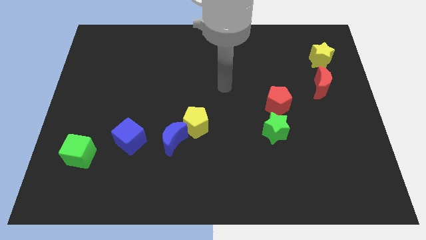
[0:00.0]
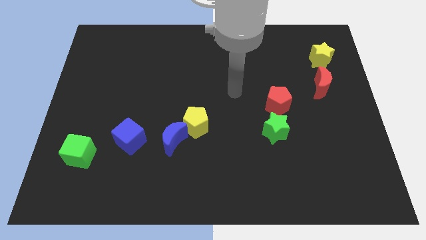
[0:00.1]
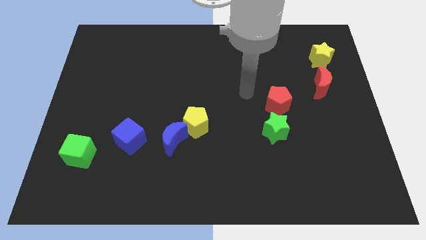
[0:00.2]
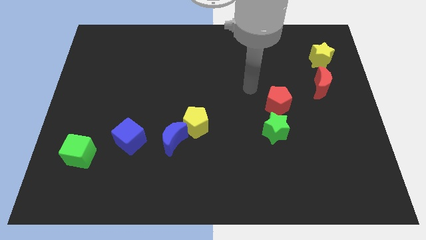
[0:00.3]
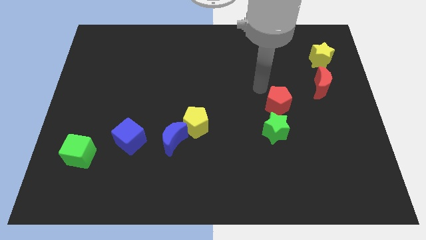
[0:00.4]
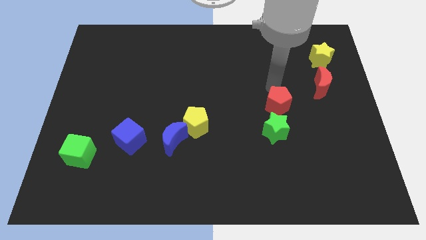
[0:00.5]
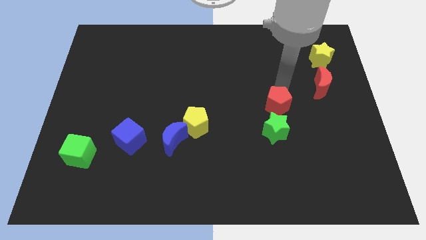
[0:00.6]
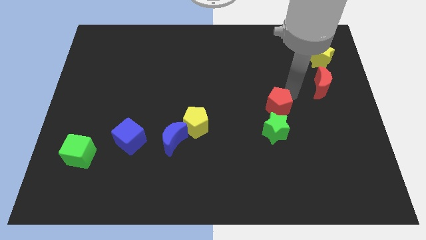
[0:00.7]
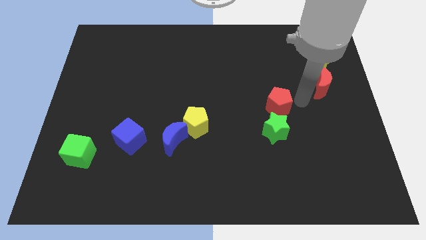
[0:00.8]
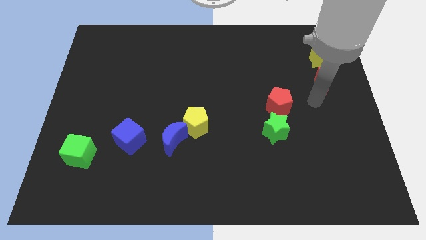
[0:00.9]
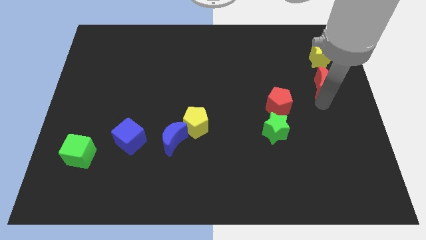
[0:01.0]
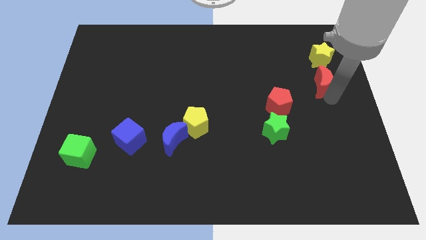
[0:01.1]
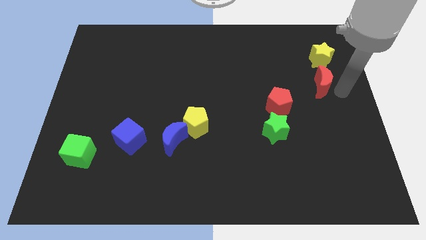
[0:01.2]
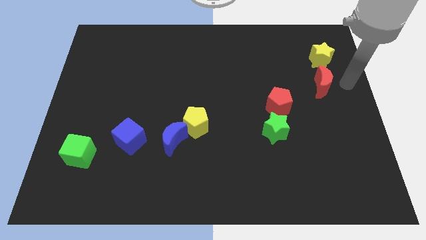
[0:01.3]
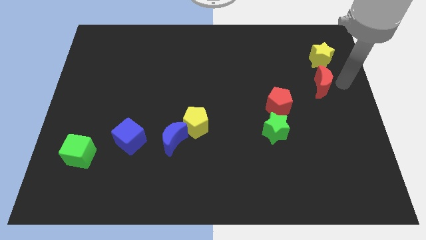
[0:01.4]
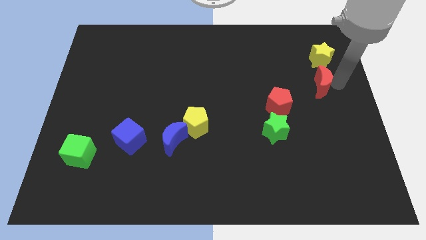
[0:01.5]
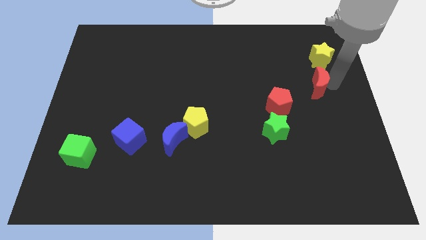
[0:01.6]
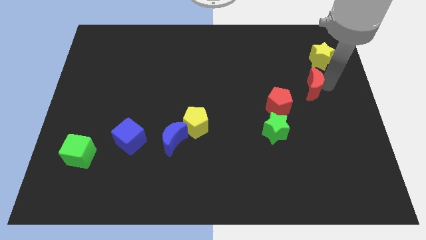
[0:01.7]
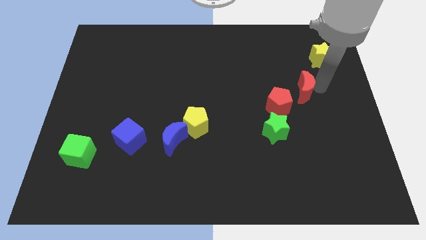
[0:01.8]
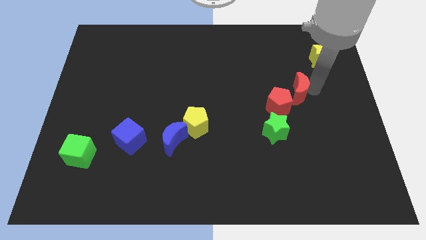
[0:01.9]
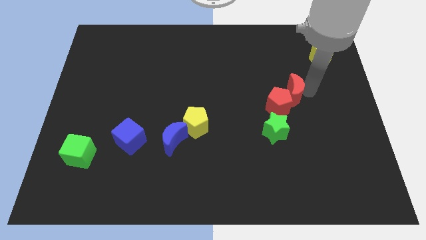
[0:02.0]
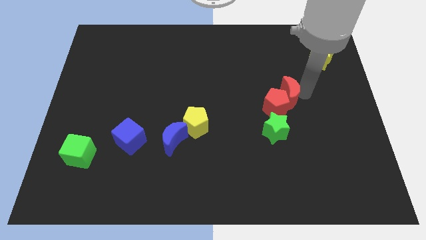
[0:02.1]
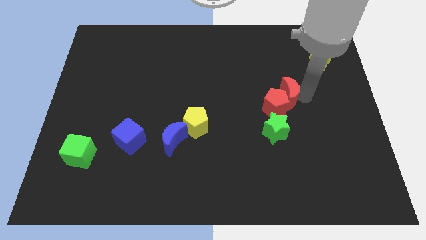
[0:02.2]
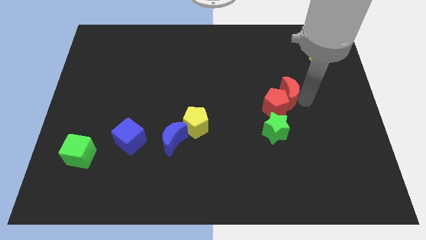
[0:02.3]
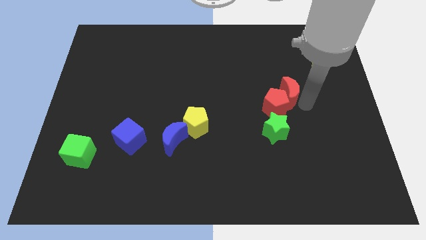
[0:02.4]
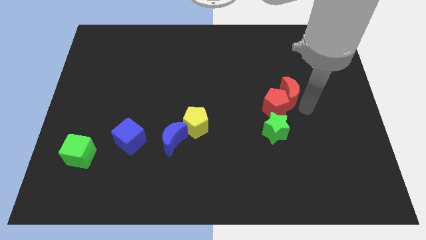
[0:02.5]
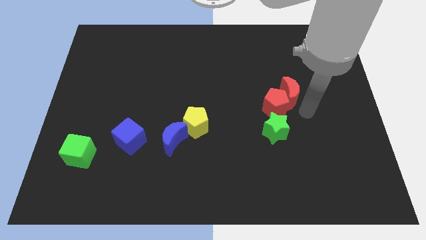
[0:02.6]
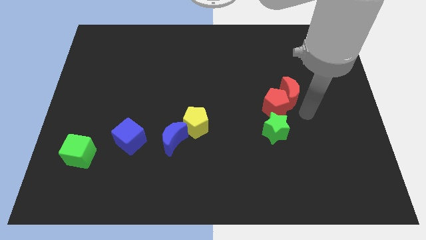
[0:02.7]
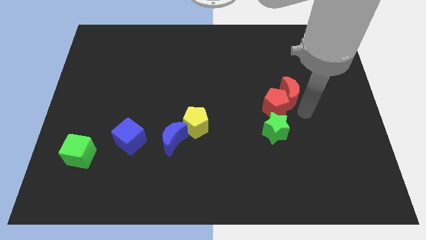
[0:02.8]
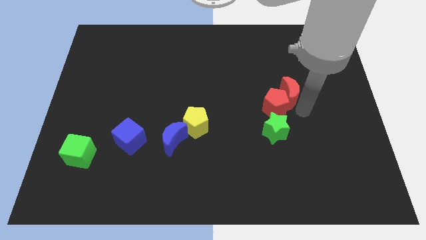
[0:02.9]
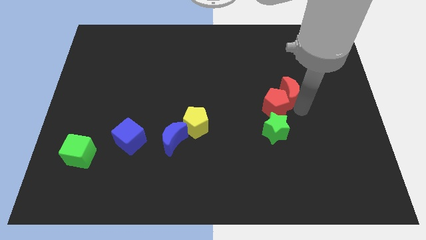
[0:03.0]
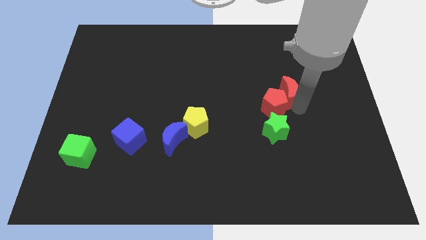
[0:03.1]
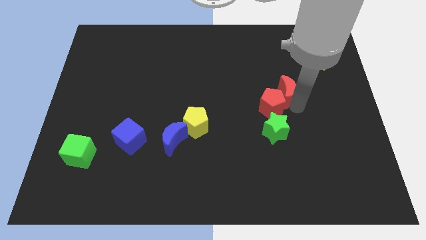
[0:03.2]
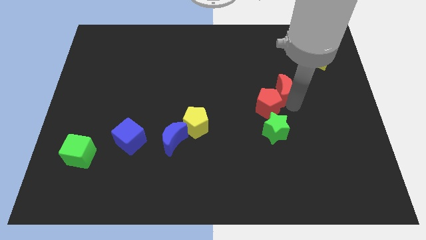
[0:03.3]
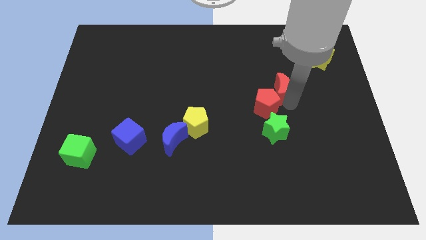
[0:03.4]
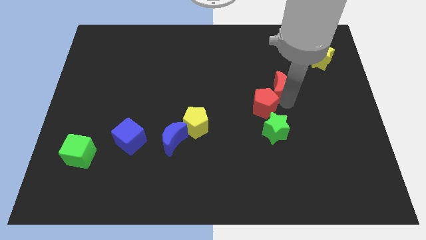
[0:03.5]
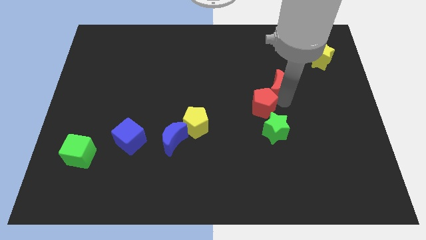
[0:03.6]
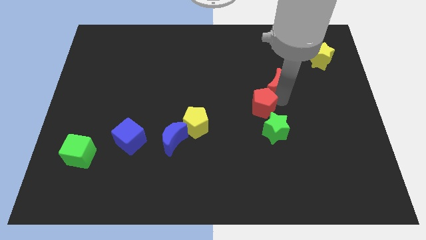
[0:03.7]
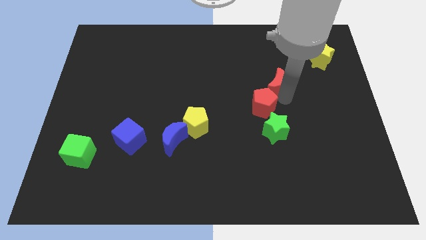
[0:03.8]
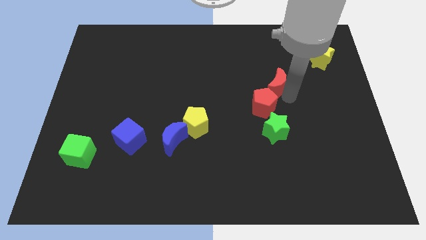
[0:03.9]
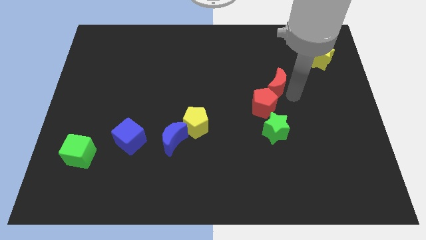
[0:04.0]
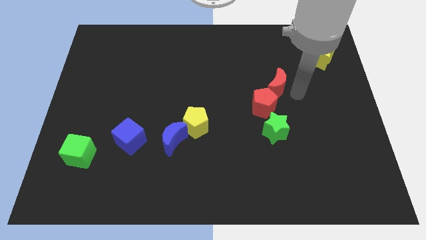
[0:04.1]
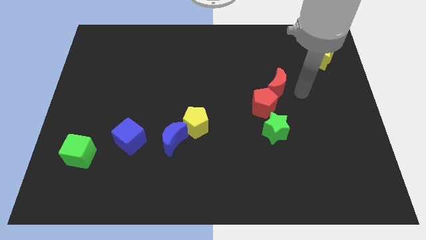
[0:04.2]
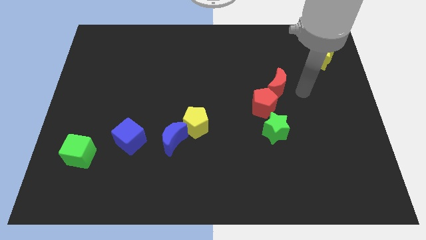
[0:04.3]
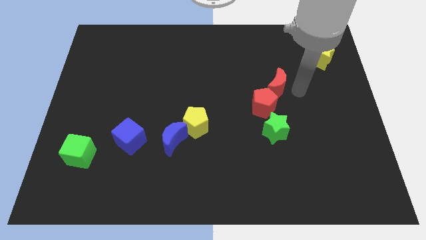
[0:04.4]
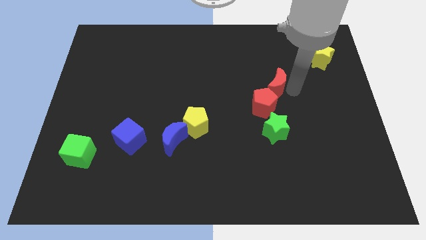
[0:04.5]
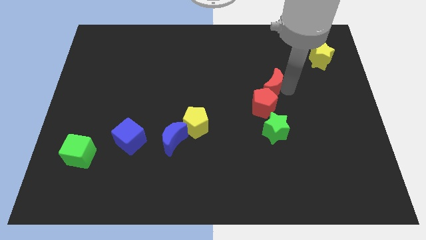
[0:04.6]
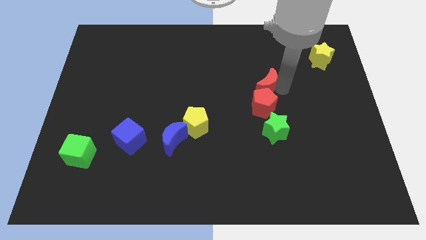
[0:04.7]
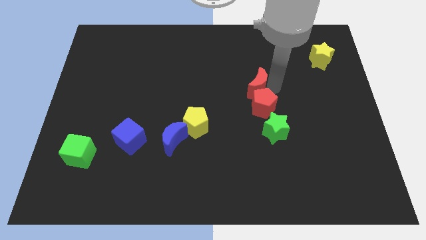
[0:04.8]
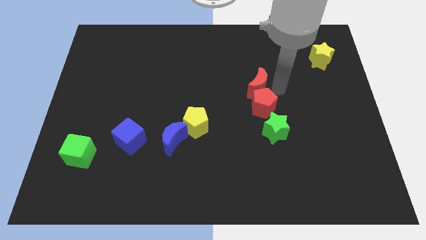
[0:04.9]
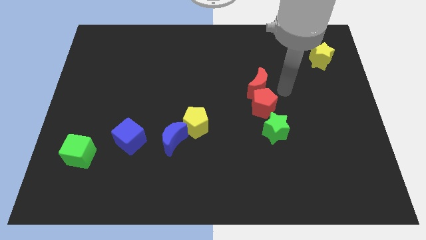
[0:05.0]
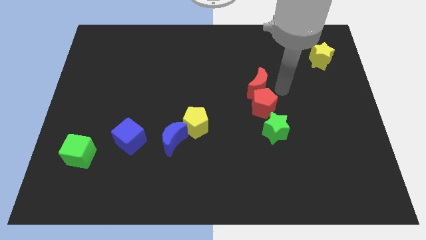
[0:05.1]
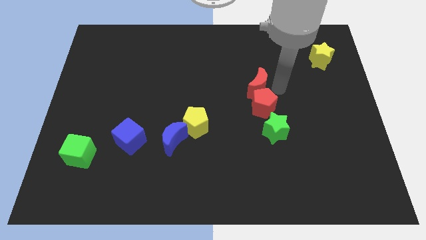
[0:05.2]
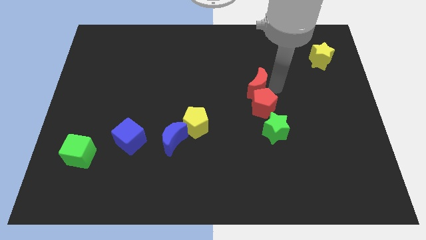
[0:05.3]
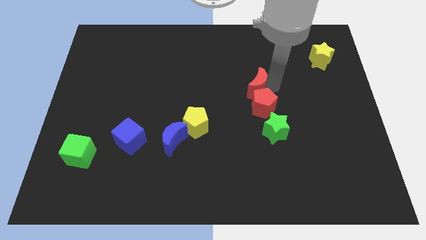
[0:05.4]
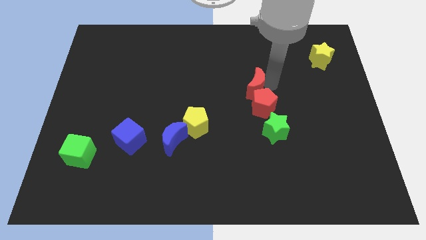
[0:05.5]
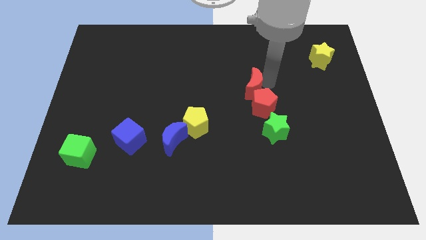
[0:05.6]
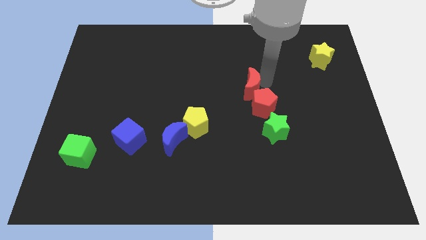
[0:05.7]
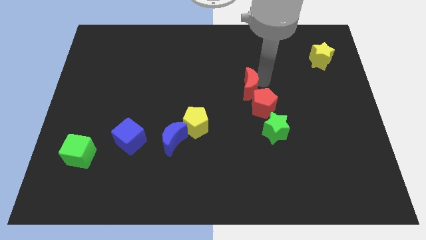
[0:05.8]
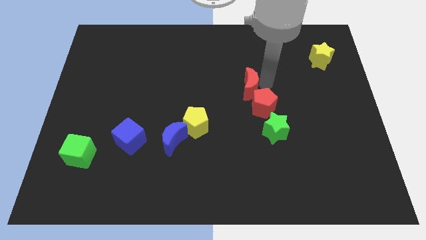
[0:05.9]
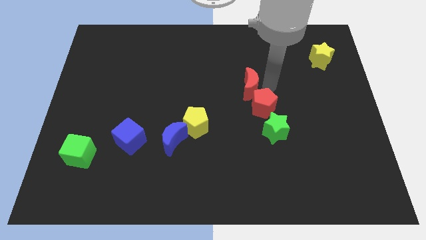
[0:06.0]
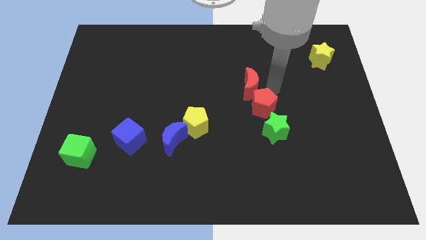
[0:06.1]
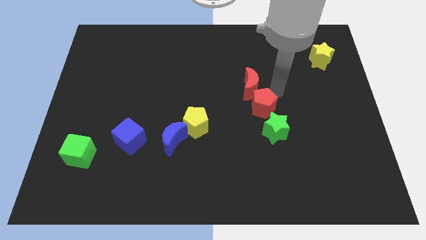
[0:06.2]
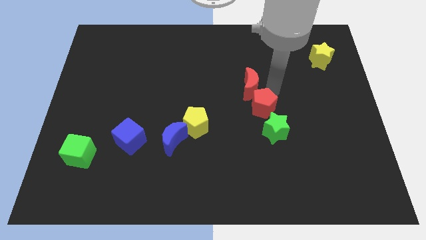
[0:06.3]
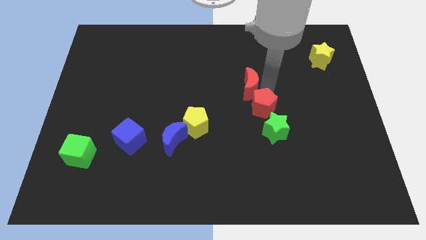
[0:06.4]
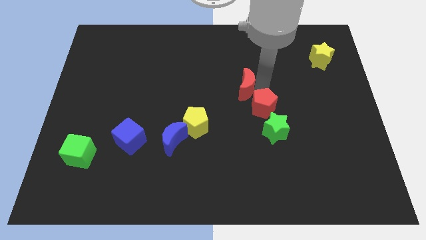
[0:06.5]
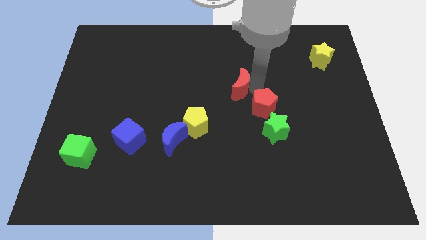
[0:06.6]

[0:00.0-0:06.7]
push the red moon left

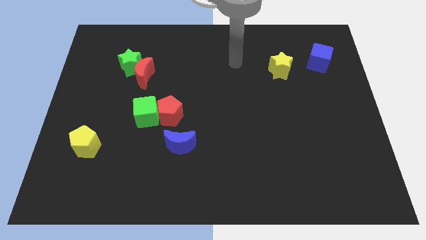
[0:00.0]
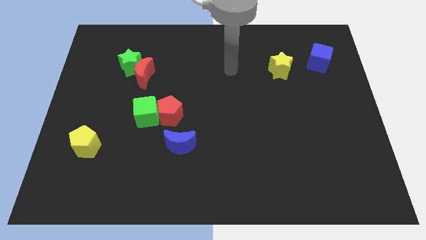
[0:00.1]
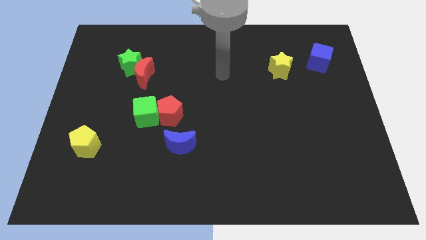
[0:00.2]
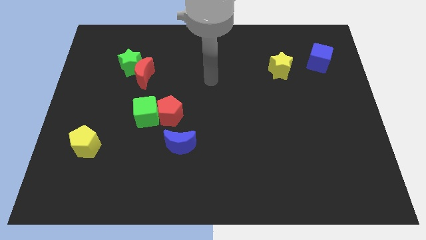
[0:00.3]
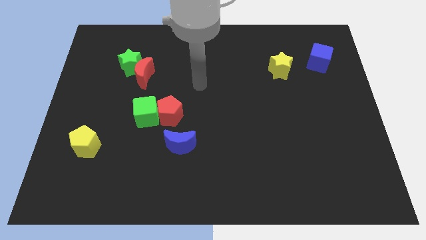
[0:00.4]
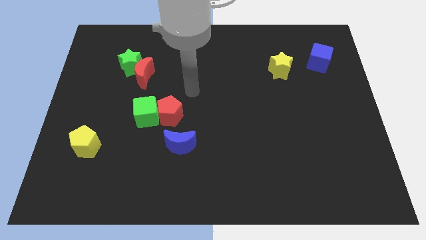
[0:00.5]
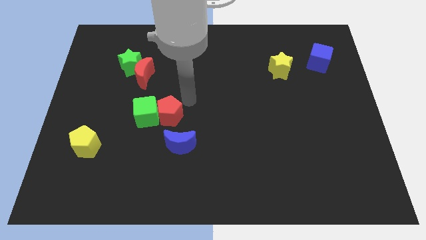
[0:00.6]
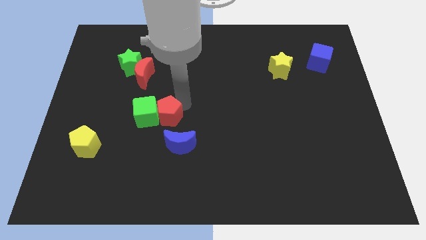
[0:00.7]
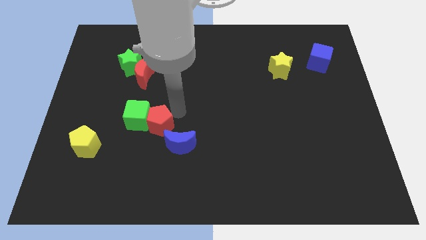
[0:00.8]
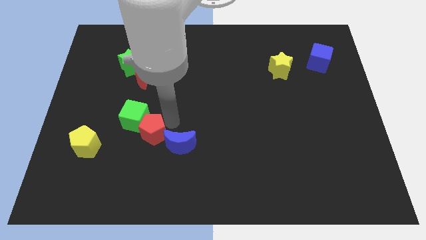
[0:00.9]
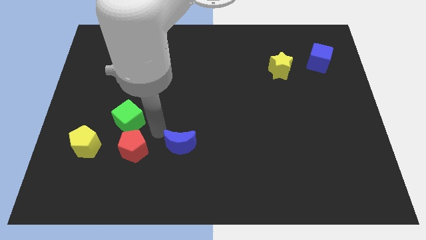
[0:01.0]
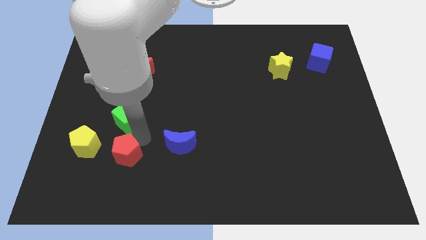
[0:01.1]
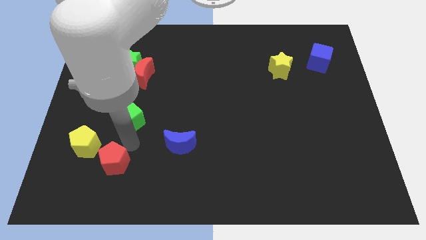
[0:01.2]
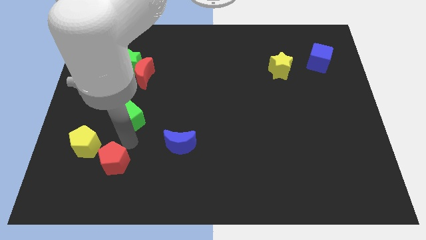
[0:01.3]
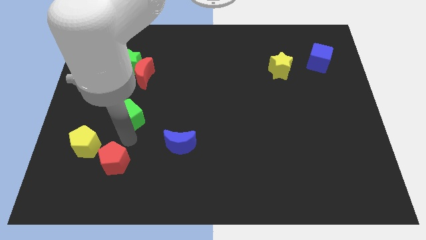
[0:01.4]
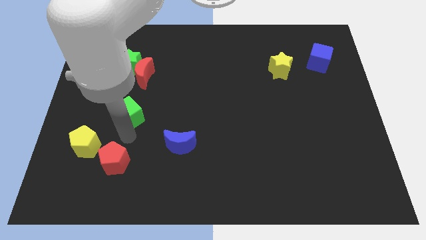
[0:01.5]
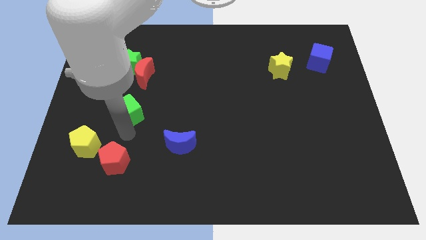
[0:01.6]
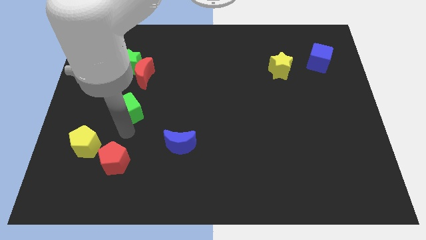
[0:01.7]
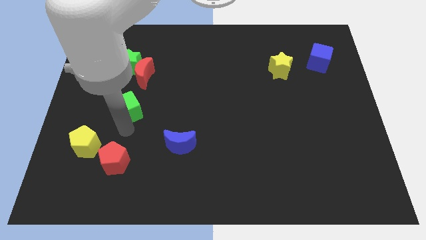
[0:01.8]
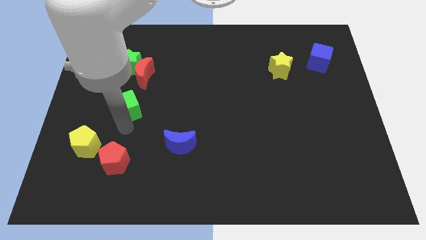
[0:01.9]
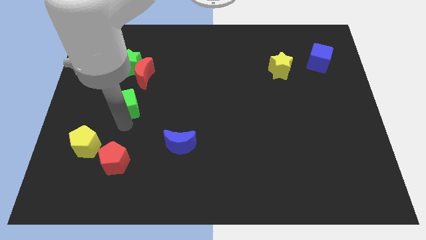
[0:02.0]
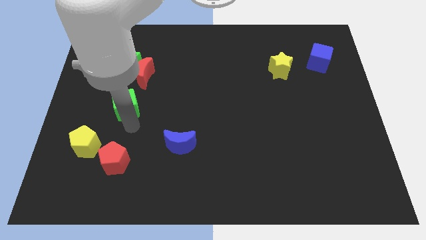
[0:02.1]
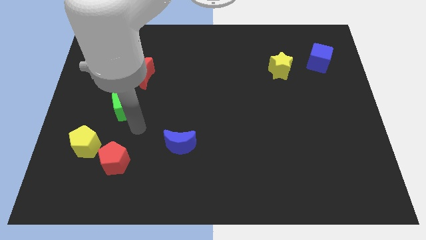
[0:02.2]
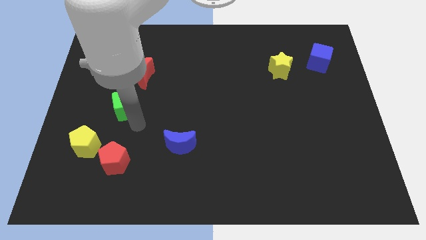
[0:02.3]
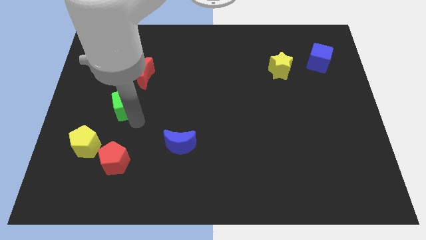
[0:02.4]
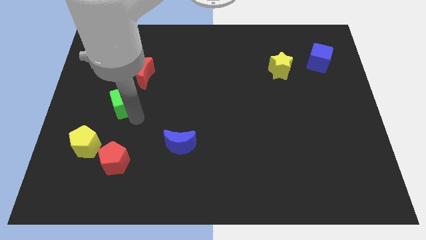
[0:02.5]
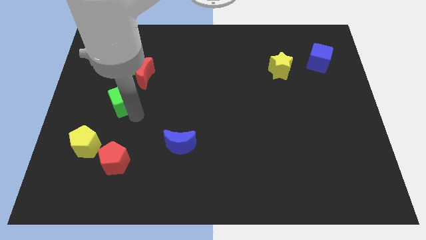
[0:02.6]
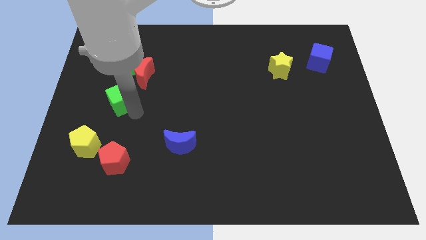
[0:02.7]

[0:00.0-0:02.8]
push the green cube diagonally upwards and left slightly
